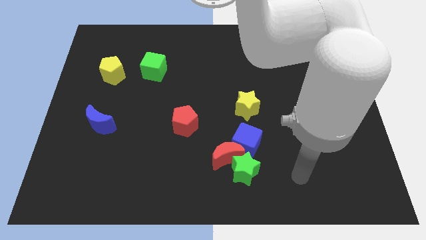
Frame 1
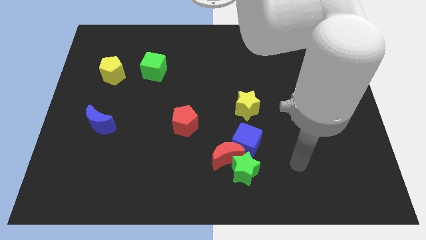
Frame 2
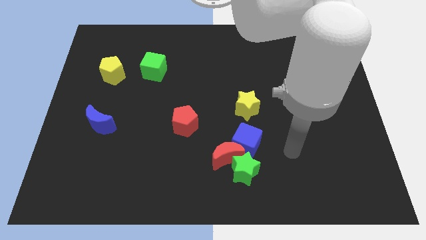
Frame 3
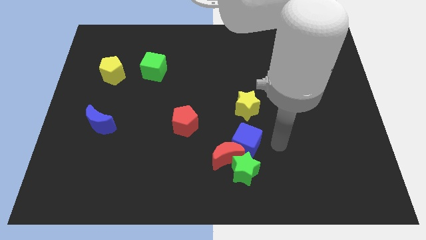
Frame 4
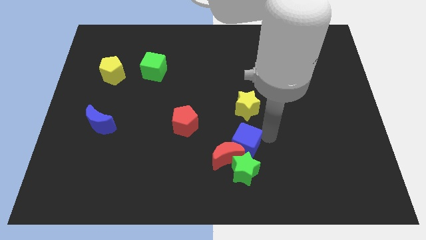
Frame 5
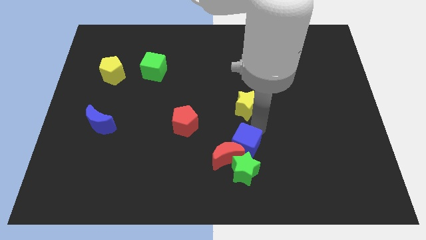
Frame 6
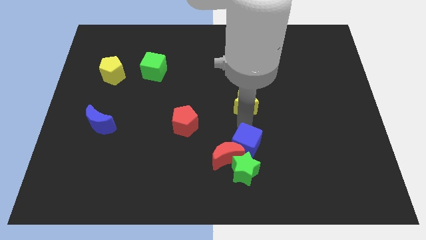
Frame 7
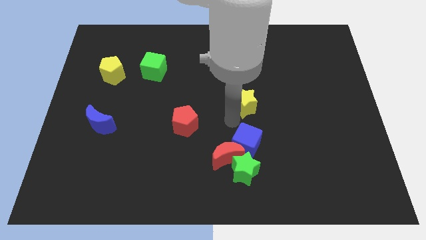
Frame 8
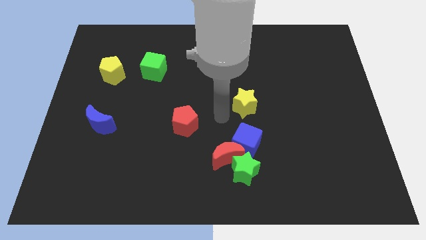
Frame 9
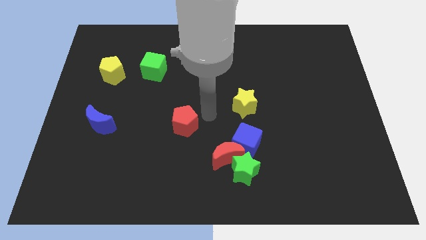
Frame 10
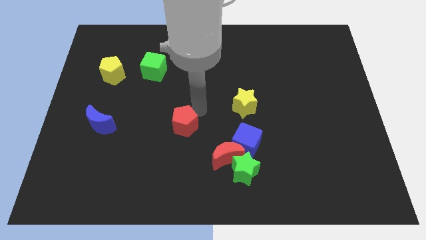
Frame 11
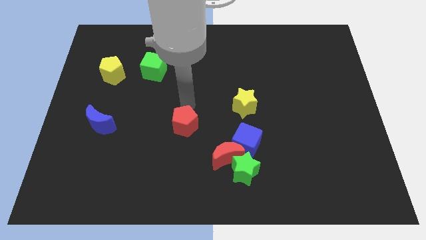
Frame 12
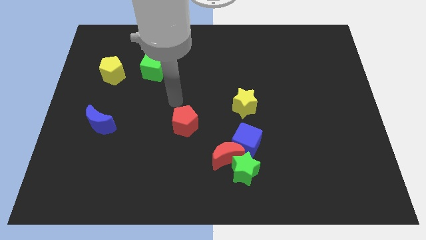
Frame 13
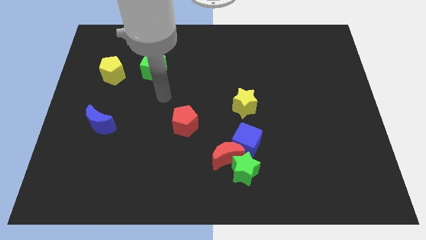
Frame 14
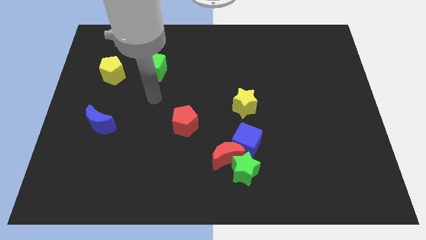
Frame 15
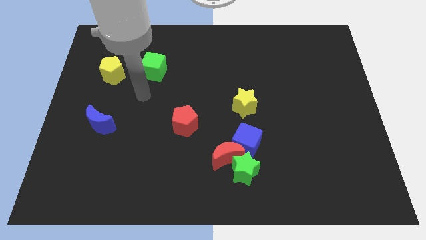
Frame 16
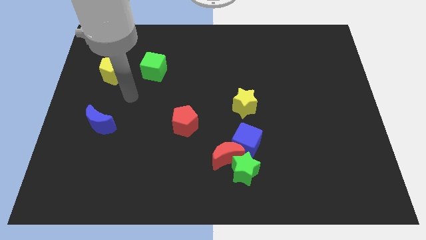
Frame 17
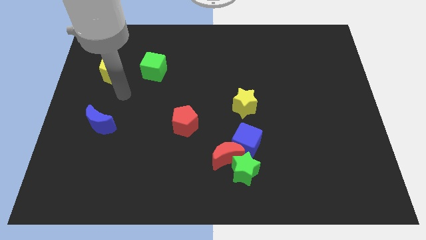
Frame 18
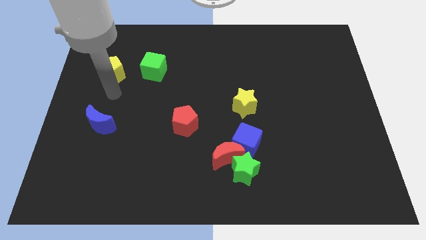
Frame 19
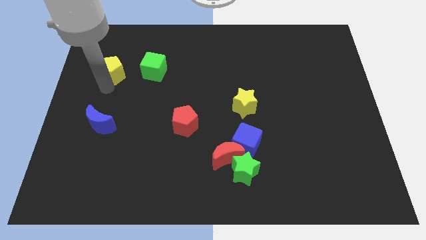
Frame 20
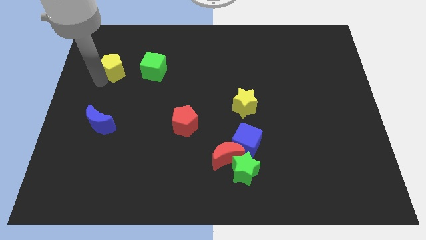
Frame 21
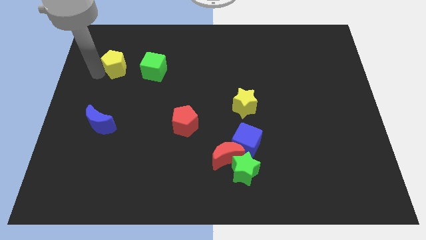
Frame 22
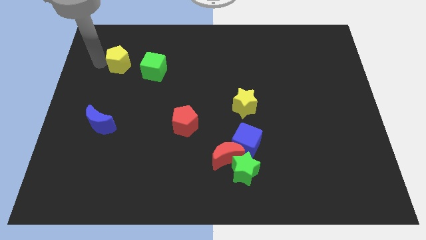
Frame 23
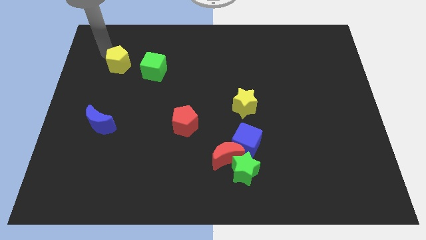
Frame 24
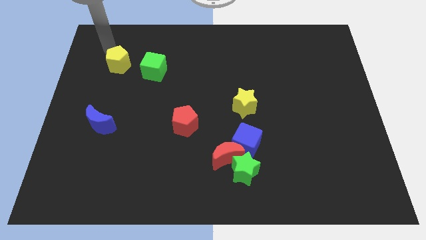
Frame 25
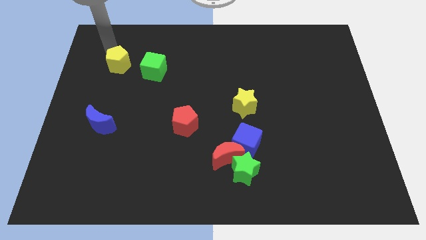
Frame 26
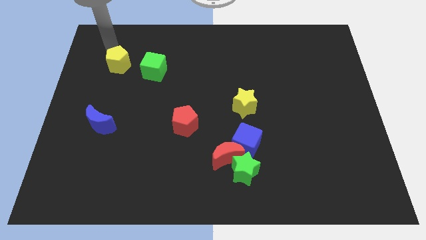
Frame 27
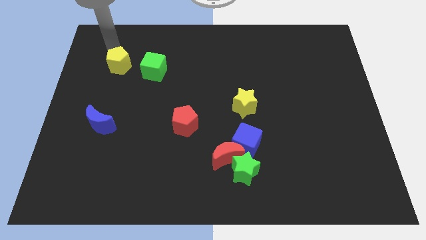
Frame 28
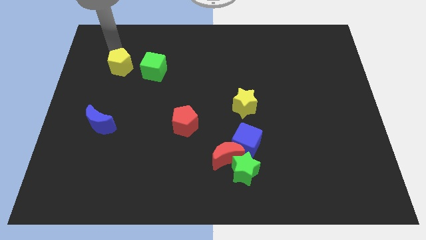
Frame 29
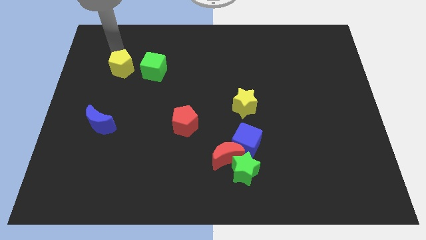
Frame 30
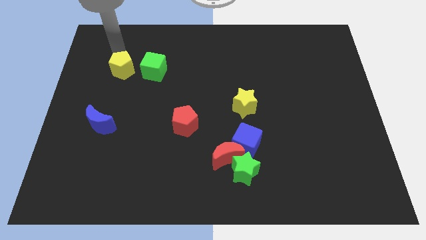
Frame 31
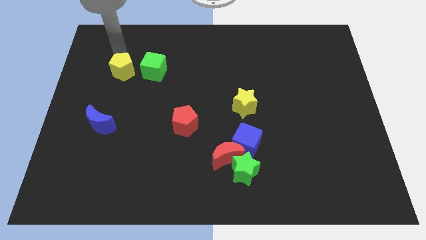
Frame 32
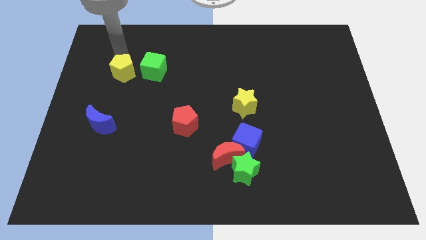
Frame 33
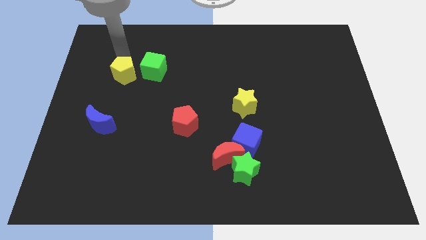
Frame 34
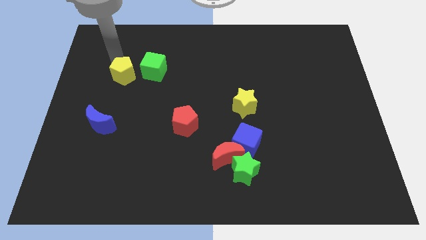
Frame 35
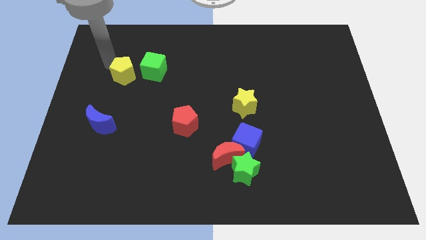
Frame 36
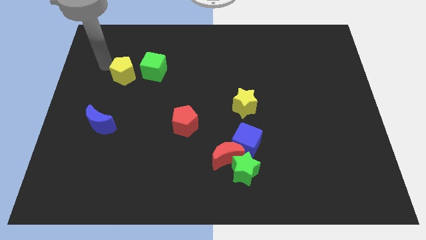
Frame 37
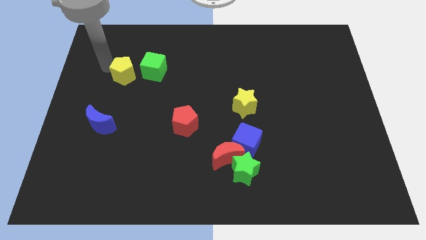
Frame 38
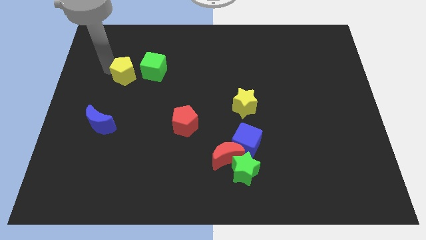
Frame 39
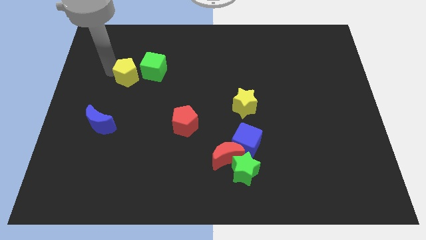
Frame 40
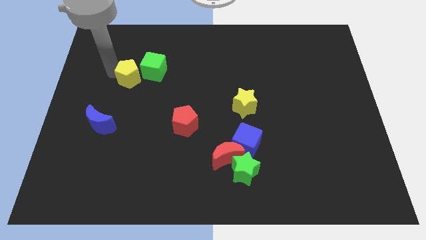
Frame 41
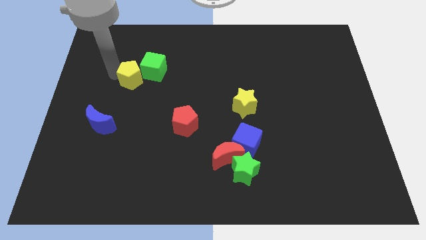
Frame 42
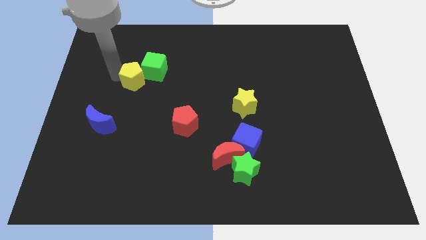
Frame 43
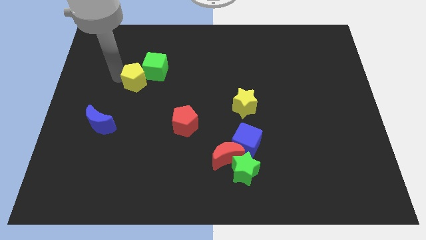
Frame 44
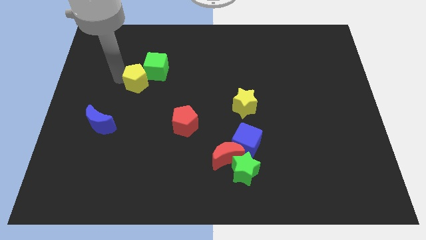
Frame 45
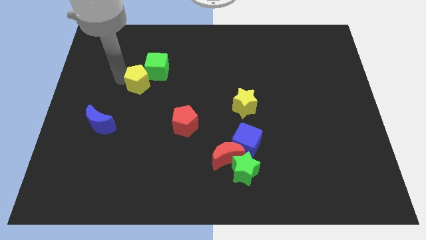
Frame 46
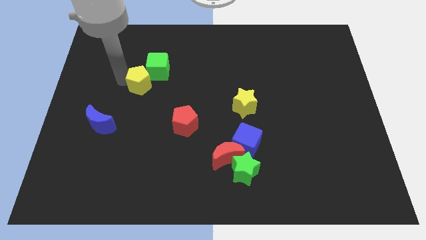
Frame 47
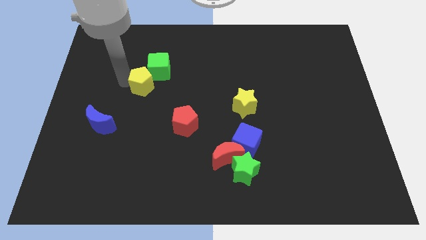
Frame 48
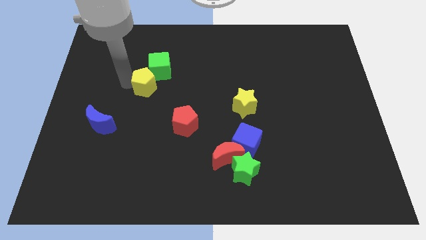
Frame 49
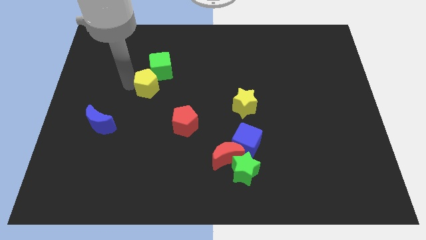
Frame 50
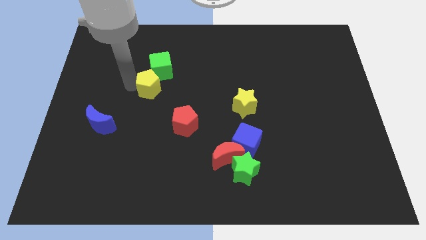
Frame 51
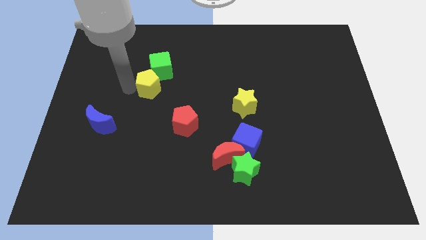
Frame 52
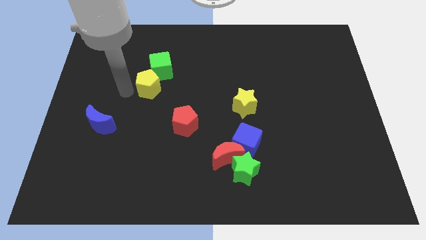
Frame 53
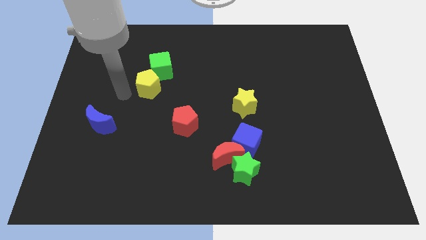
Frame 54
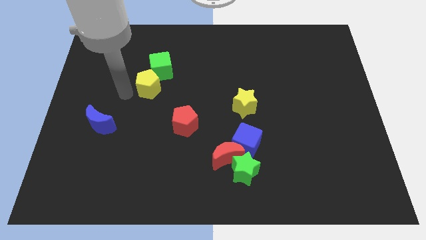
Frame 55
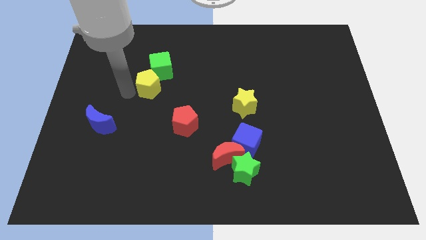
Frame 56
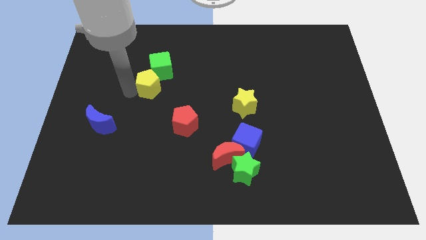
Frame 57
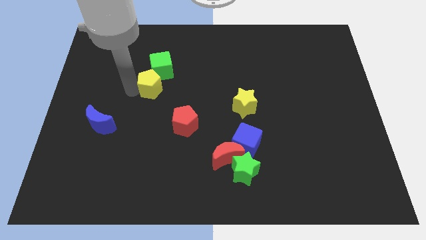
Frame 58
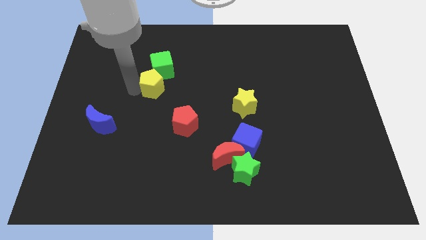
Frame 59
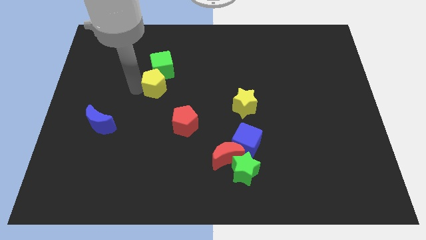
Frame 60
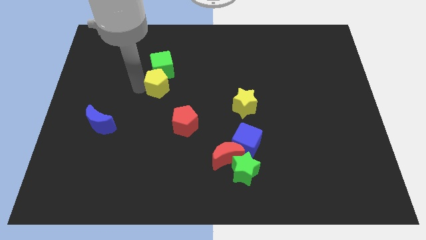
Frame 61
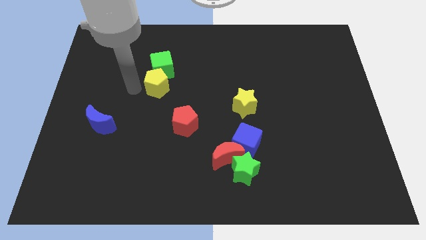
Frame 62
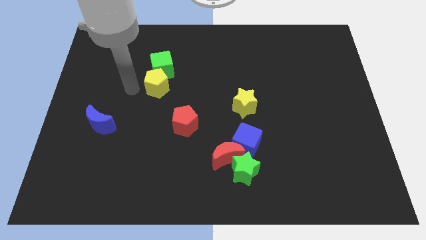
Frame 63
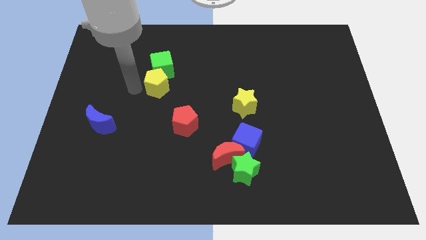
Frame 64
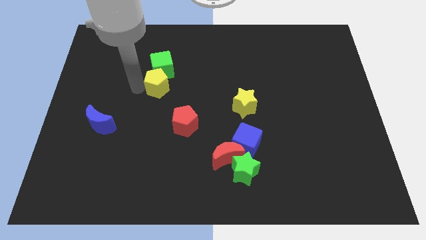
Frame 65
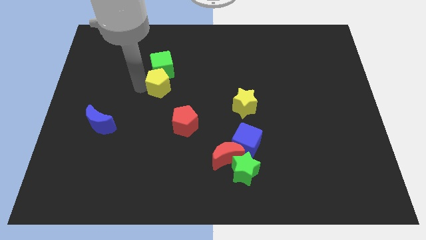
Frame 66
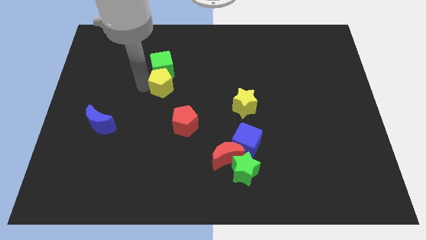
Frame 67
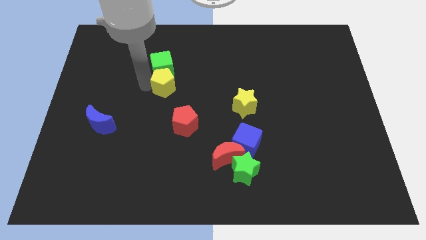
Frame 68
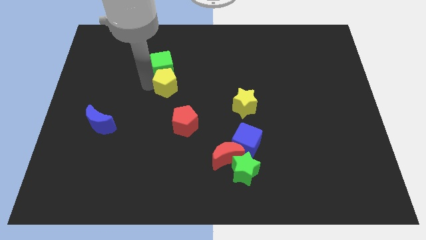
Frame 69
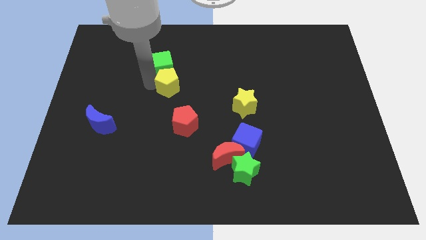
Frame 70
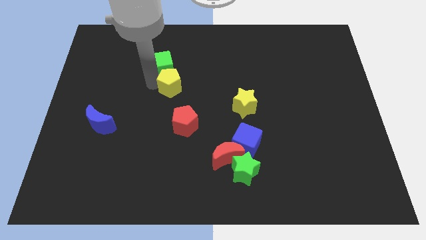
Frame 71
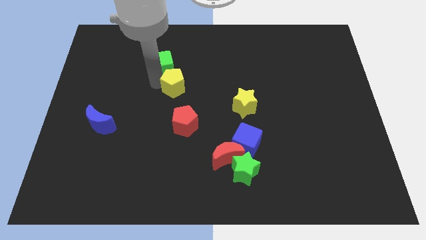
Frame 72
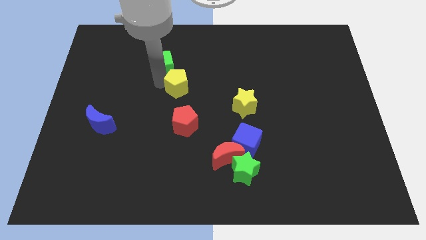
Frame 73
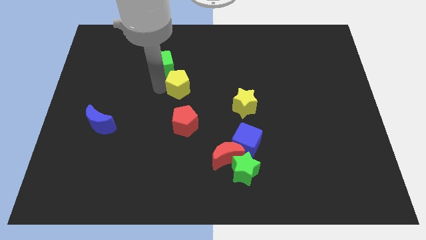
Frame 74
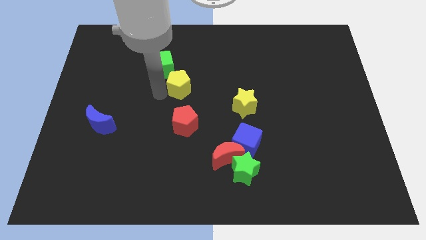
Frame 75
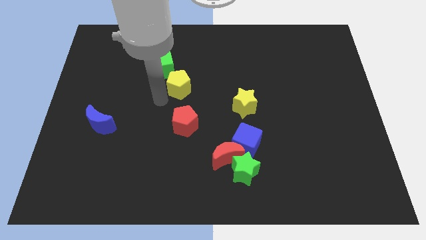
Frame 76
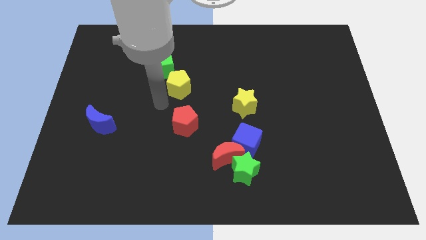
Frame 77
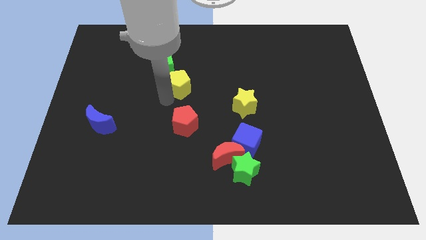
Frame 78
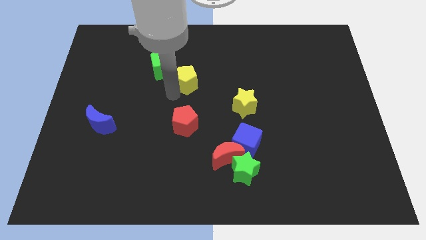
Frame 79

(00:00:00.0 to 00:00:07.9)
slide the yellow pentagon just right of the green cube
